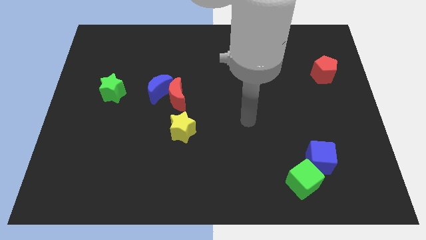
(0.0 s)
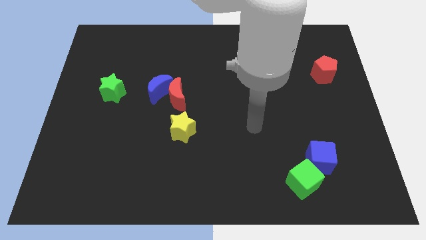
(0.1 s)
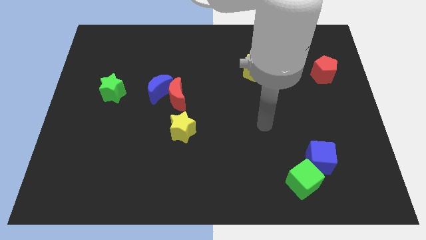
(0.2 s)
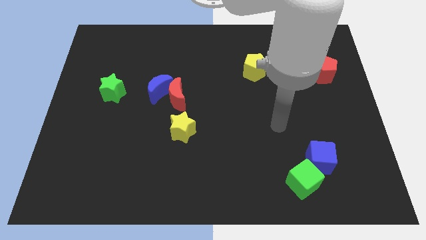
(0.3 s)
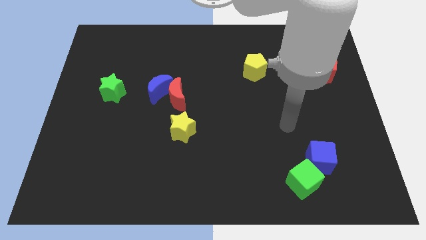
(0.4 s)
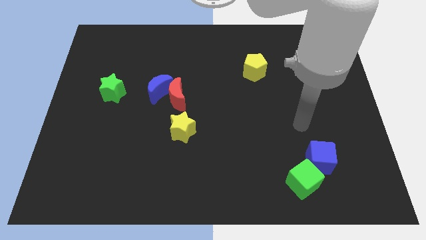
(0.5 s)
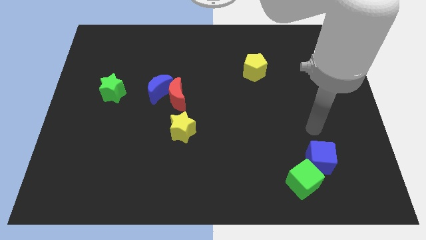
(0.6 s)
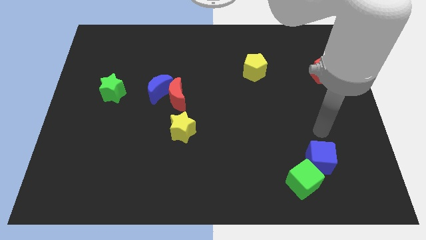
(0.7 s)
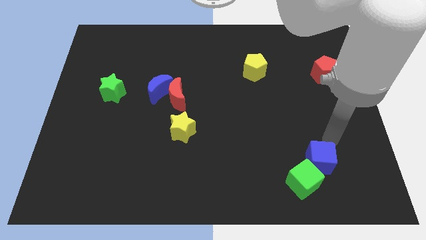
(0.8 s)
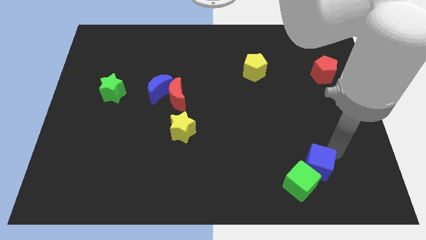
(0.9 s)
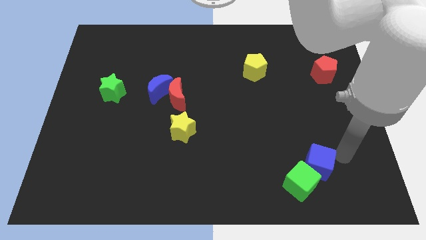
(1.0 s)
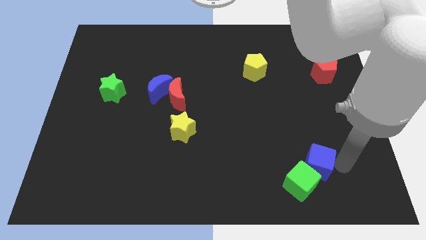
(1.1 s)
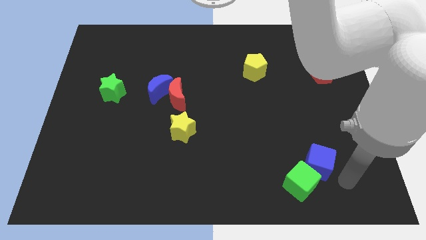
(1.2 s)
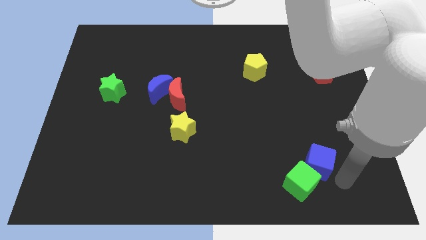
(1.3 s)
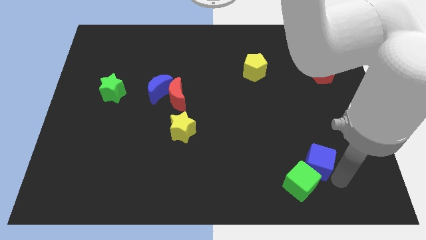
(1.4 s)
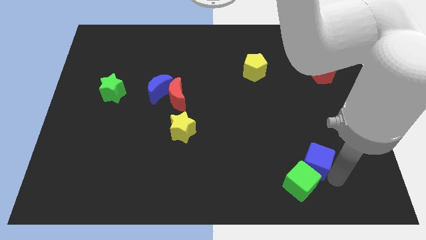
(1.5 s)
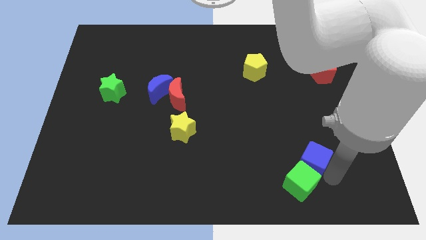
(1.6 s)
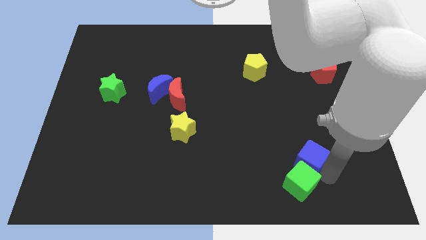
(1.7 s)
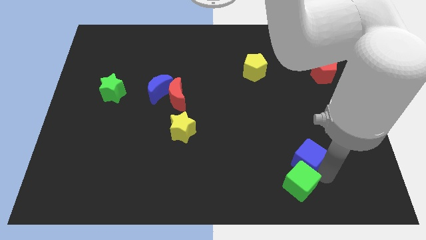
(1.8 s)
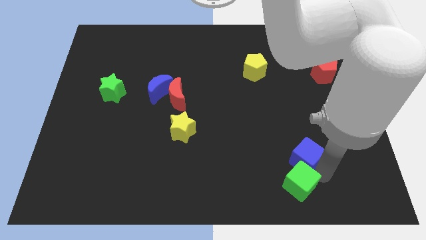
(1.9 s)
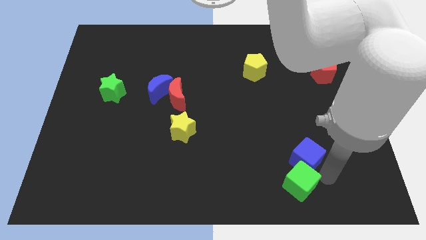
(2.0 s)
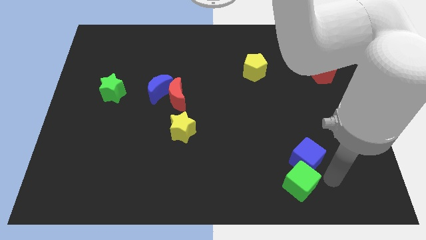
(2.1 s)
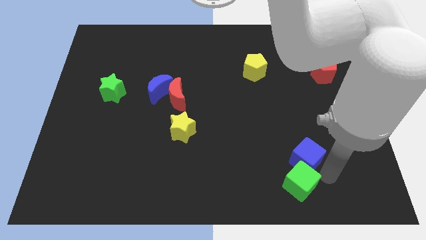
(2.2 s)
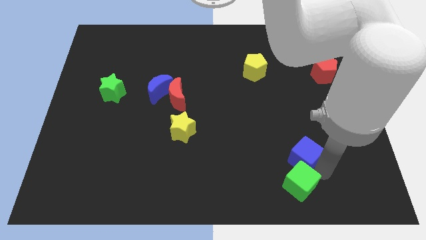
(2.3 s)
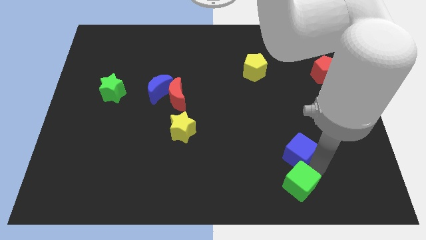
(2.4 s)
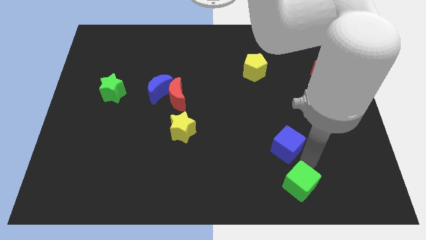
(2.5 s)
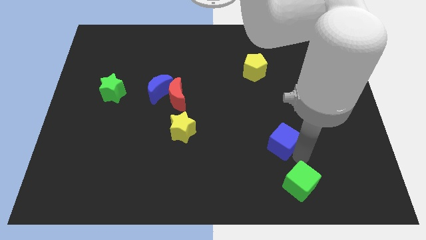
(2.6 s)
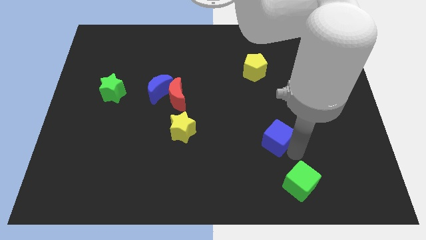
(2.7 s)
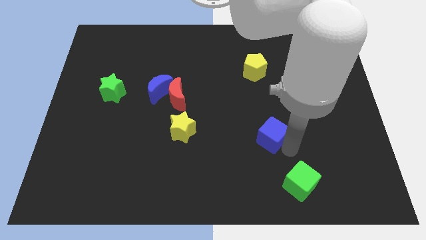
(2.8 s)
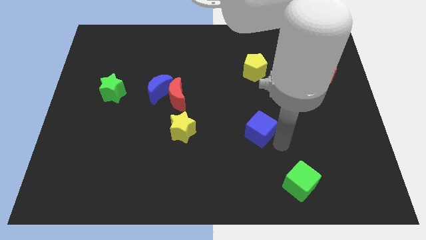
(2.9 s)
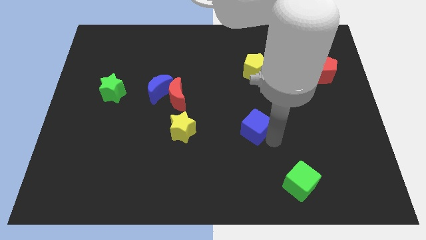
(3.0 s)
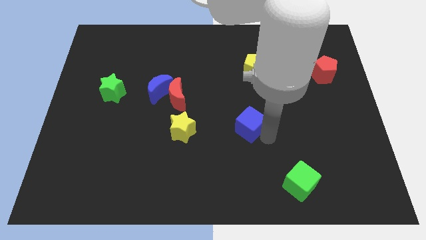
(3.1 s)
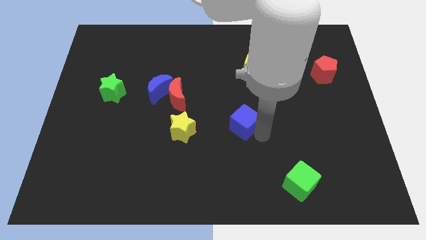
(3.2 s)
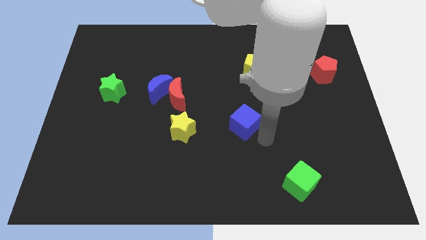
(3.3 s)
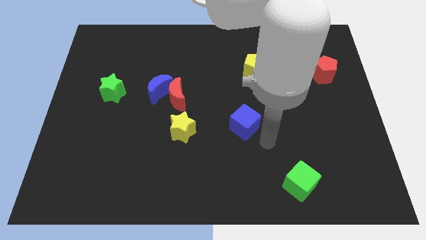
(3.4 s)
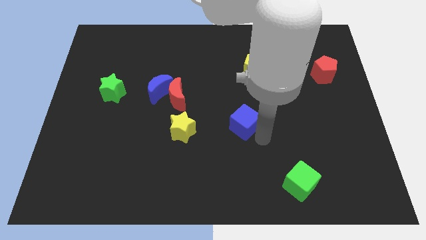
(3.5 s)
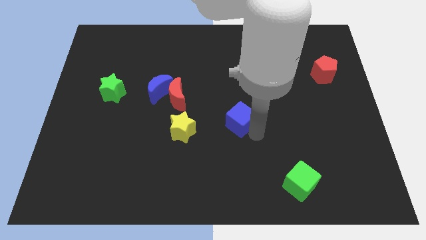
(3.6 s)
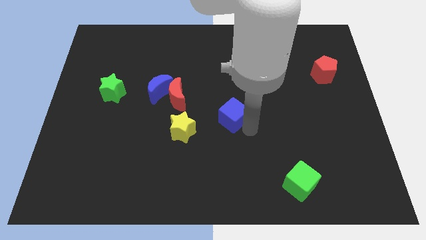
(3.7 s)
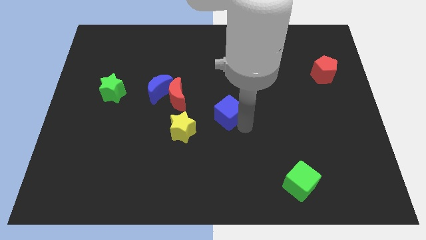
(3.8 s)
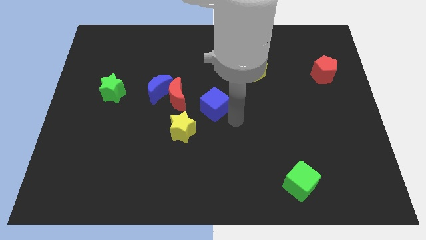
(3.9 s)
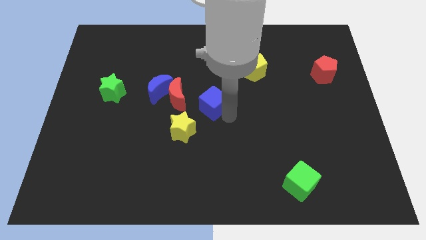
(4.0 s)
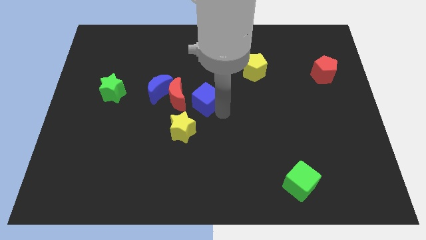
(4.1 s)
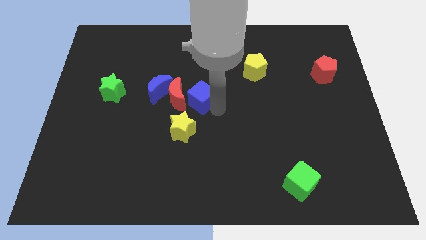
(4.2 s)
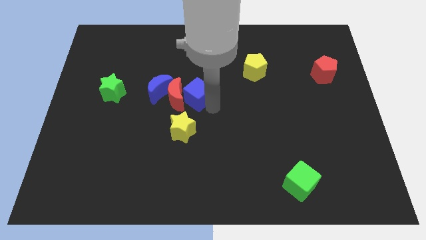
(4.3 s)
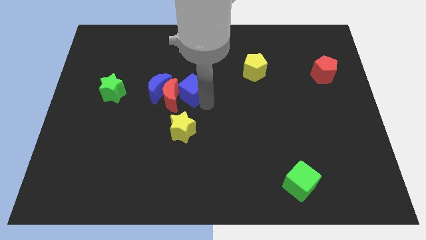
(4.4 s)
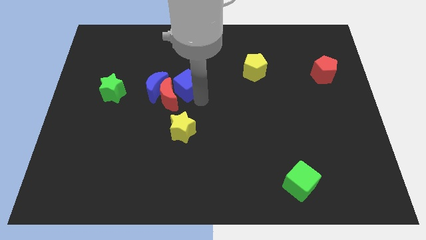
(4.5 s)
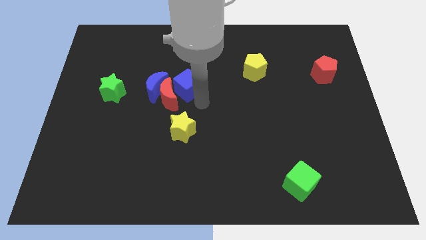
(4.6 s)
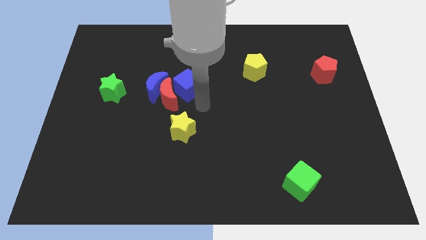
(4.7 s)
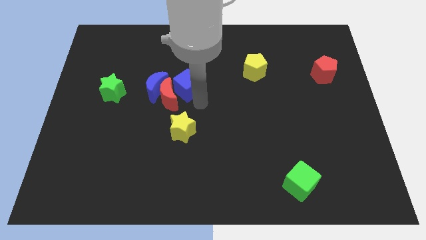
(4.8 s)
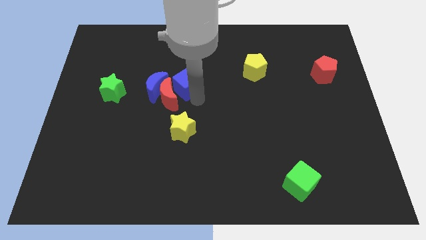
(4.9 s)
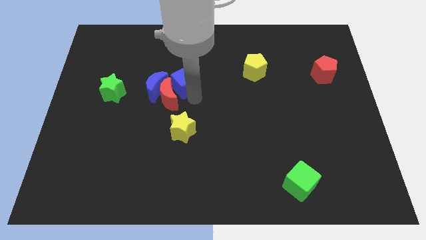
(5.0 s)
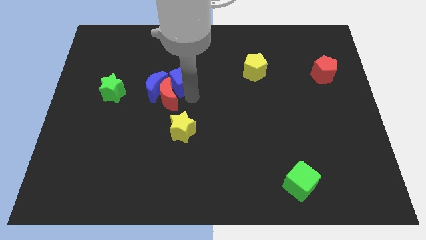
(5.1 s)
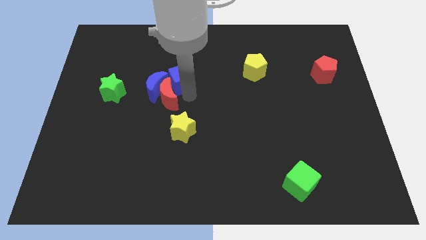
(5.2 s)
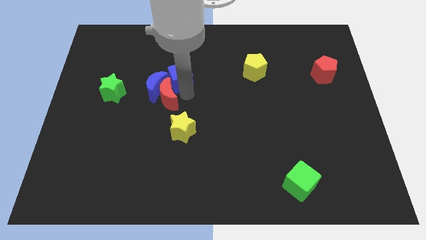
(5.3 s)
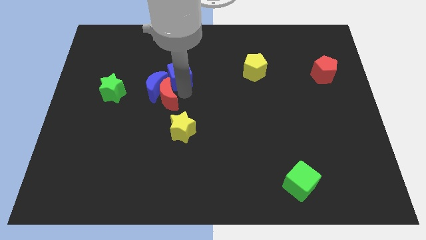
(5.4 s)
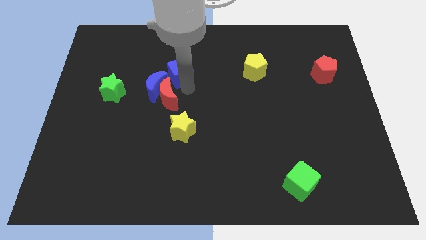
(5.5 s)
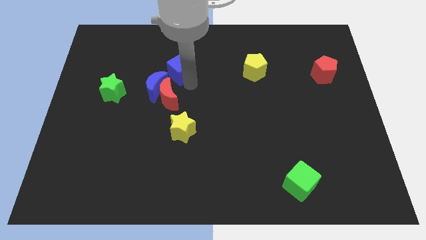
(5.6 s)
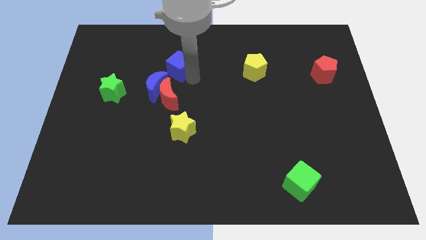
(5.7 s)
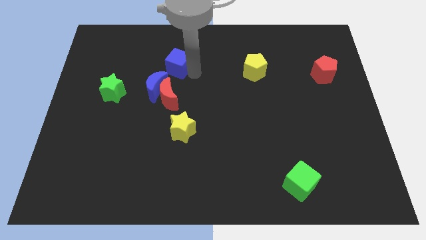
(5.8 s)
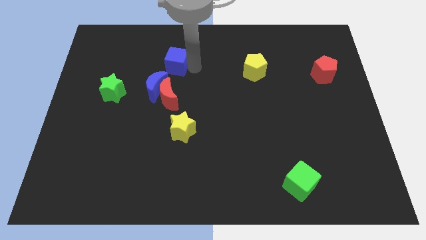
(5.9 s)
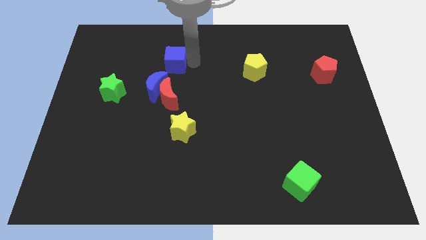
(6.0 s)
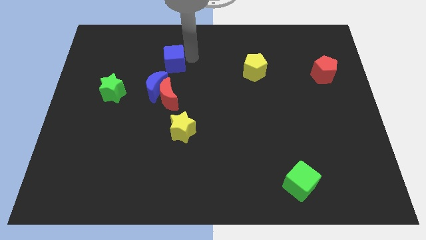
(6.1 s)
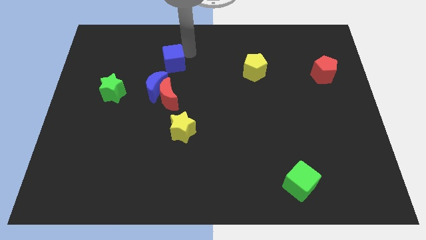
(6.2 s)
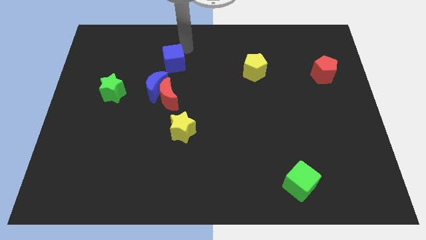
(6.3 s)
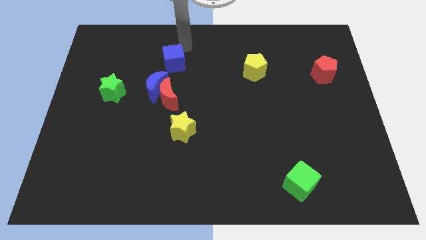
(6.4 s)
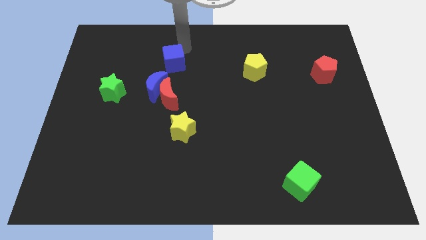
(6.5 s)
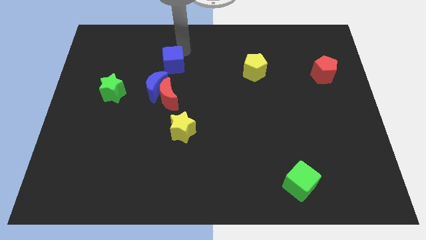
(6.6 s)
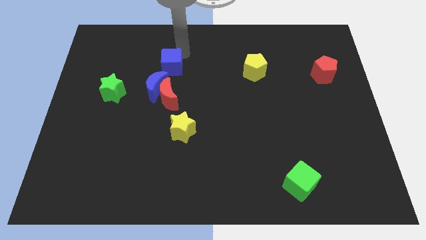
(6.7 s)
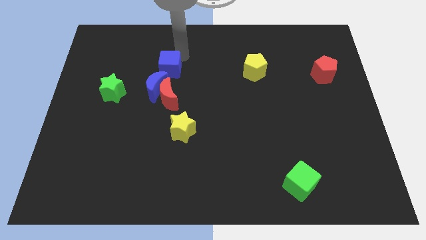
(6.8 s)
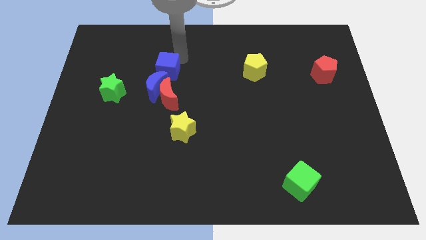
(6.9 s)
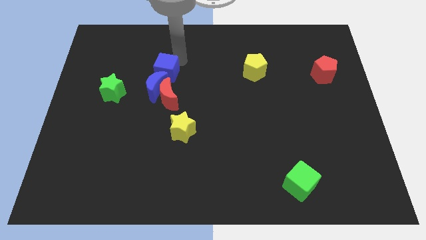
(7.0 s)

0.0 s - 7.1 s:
put the blue cube next to the blue moon

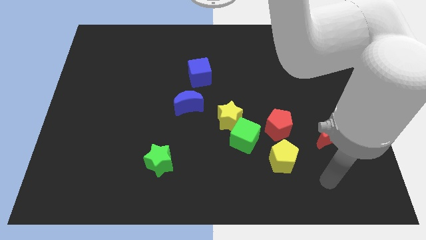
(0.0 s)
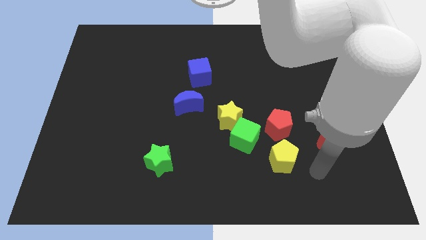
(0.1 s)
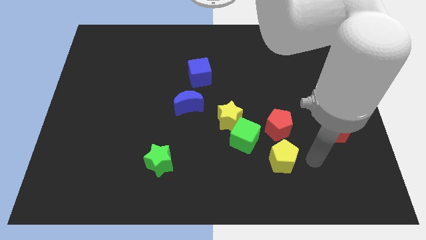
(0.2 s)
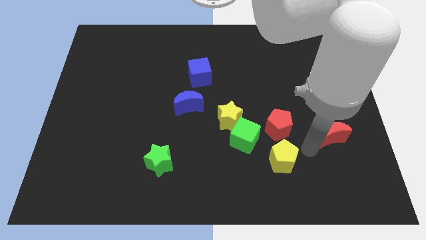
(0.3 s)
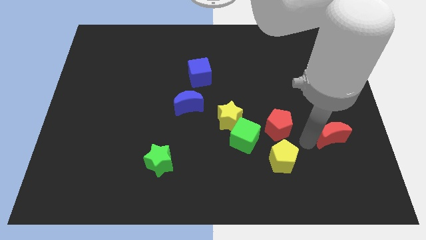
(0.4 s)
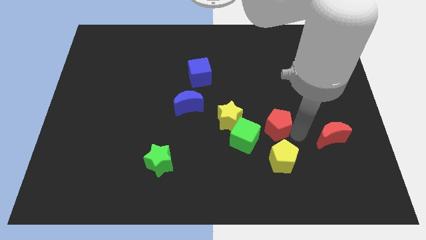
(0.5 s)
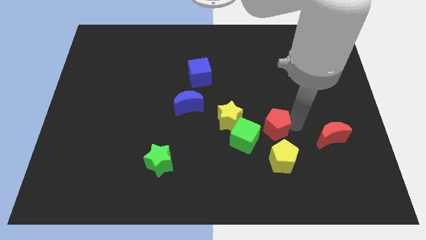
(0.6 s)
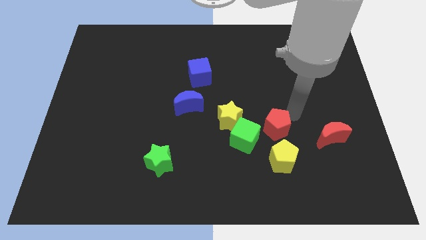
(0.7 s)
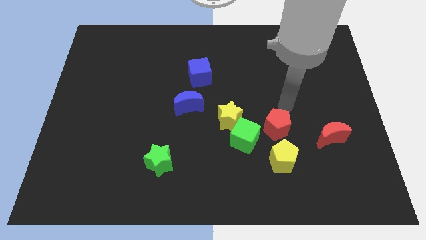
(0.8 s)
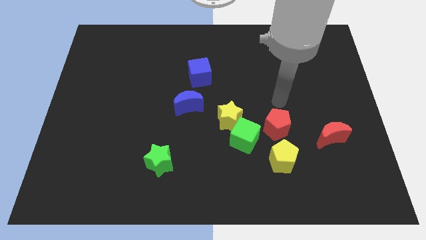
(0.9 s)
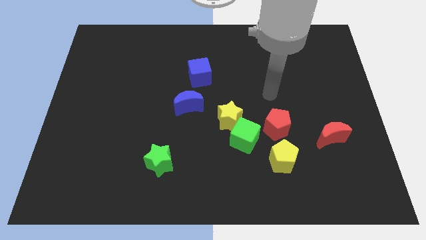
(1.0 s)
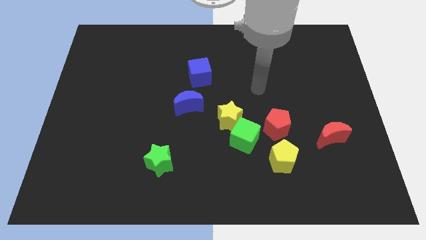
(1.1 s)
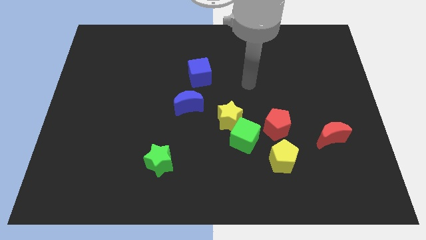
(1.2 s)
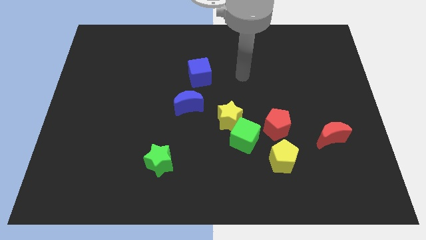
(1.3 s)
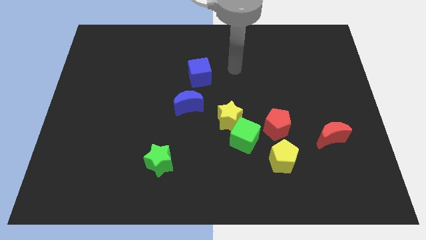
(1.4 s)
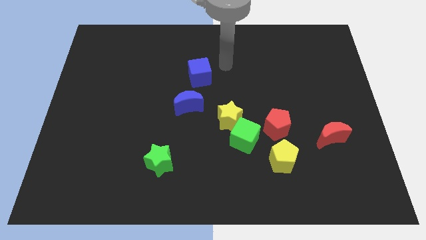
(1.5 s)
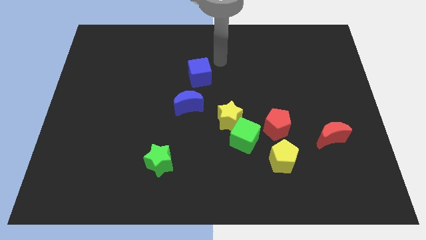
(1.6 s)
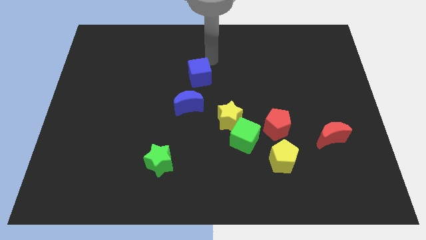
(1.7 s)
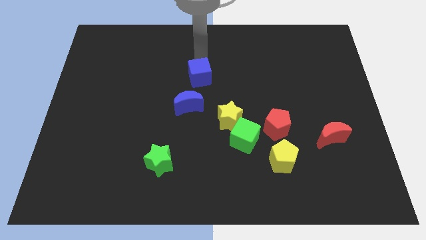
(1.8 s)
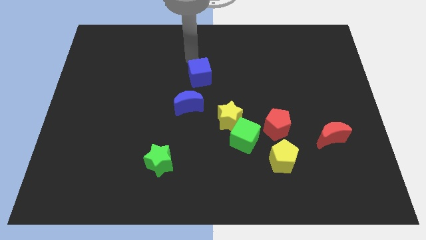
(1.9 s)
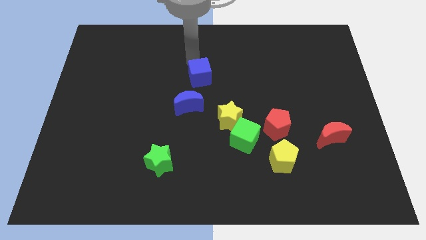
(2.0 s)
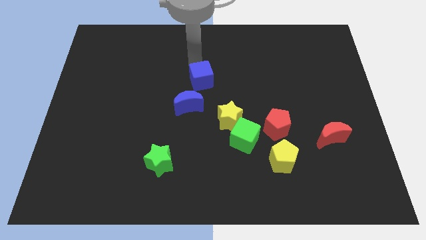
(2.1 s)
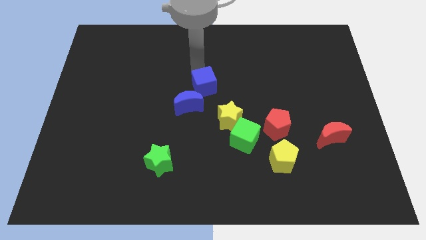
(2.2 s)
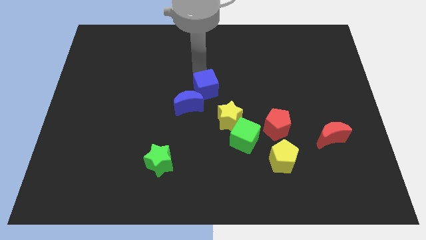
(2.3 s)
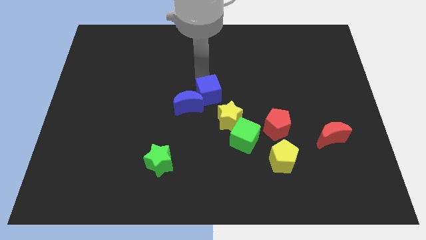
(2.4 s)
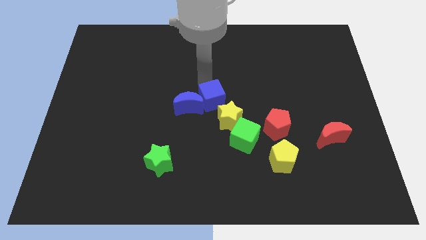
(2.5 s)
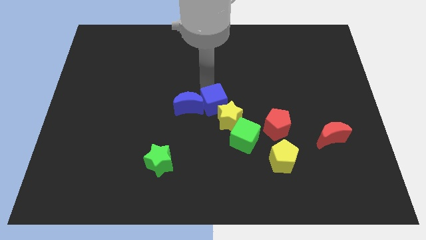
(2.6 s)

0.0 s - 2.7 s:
put the blue cube to the yellow star
